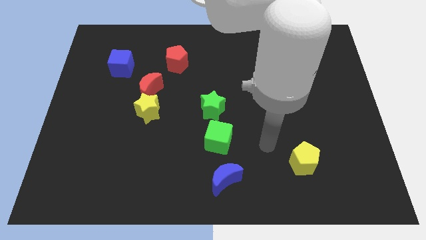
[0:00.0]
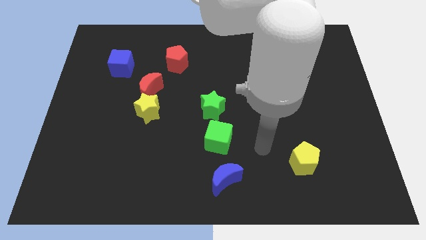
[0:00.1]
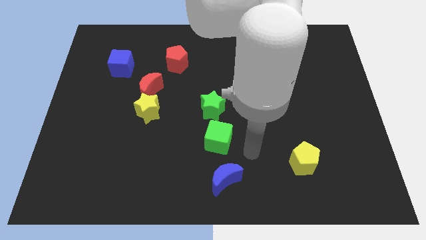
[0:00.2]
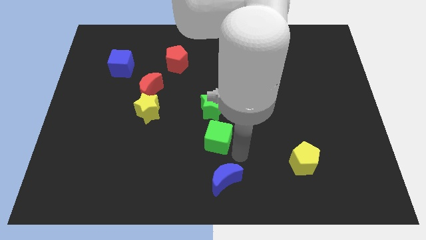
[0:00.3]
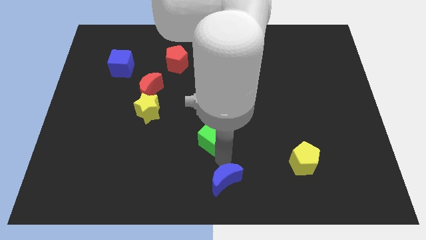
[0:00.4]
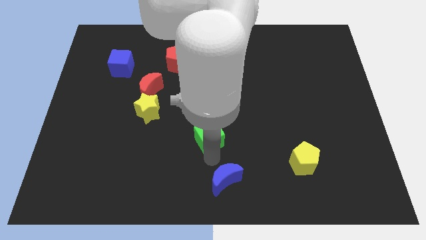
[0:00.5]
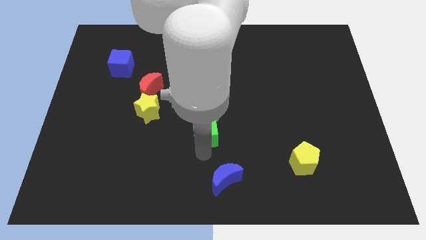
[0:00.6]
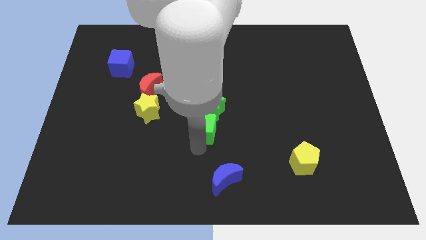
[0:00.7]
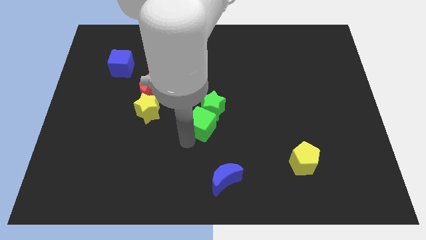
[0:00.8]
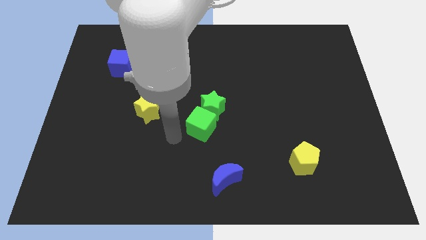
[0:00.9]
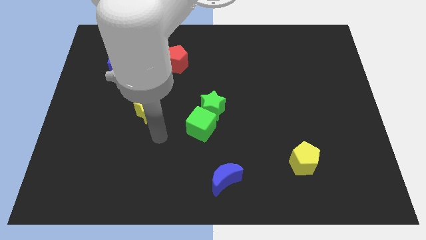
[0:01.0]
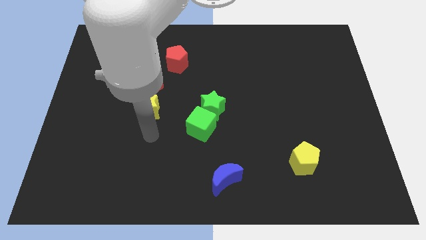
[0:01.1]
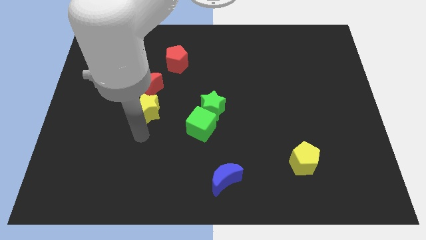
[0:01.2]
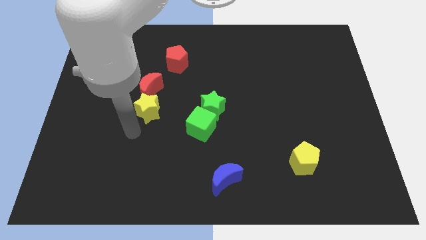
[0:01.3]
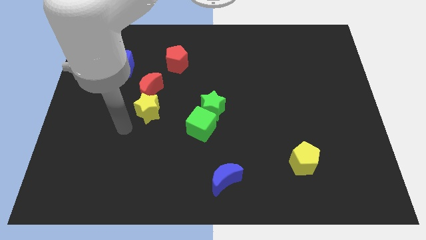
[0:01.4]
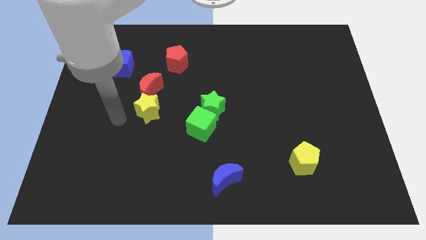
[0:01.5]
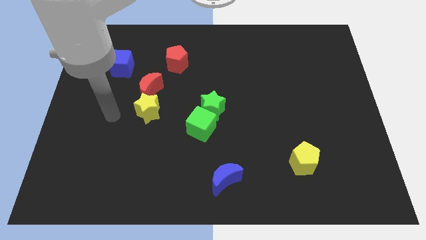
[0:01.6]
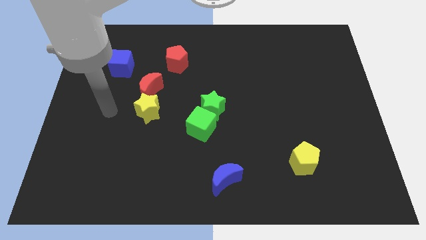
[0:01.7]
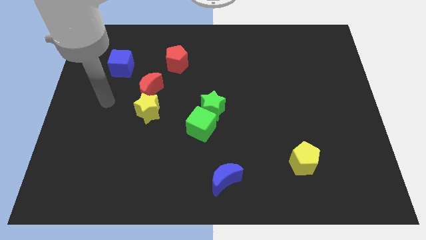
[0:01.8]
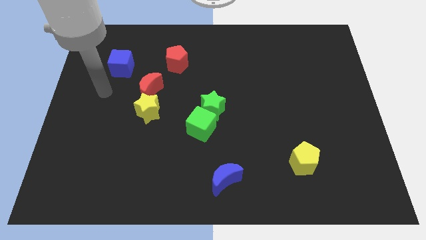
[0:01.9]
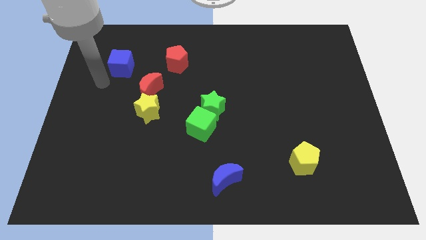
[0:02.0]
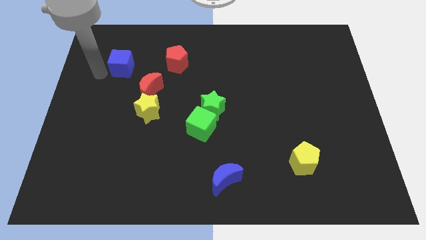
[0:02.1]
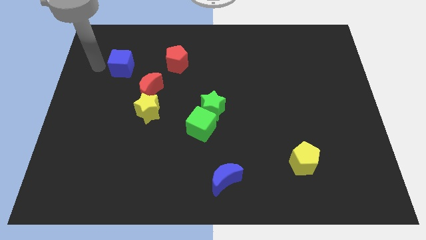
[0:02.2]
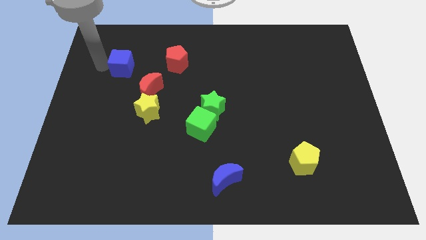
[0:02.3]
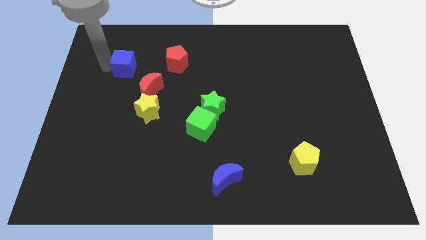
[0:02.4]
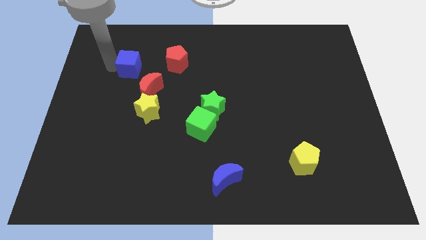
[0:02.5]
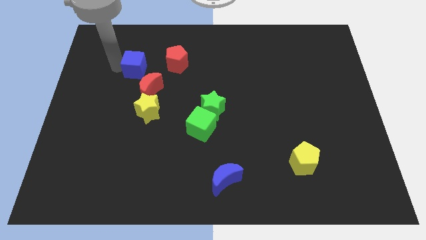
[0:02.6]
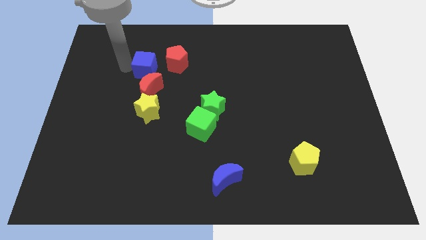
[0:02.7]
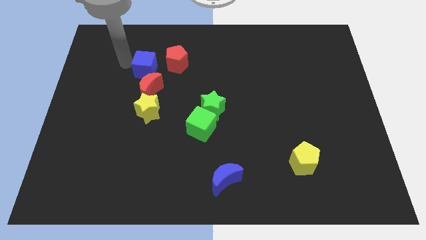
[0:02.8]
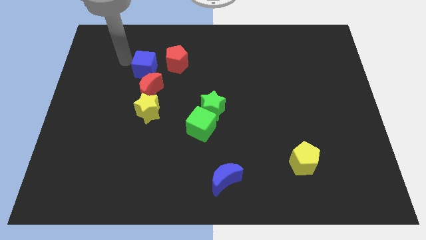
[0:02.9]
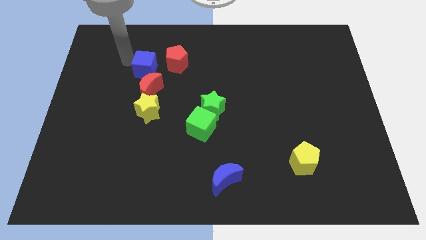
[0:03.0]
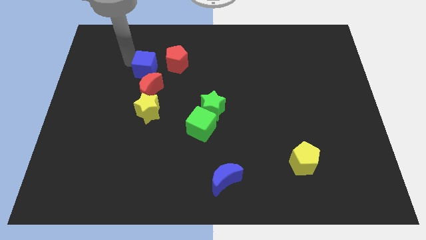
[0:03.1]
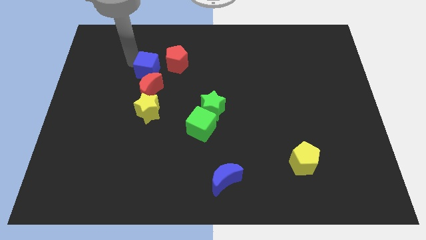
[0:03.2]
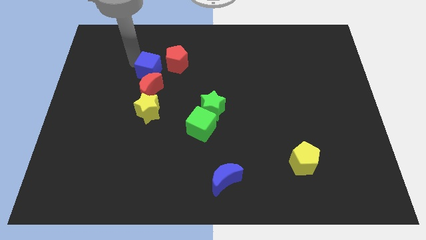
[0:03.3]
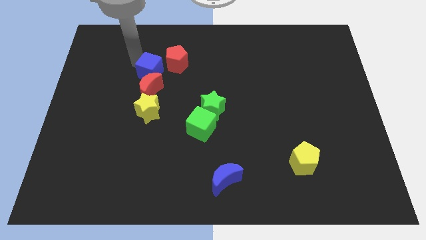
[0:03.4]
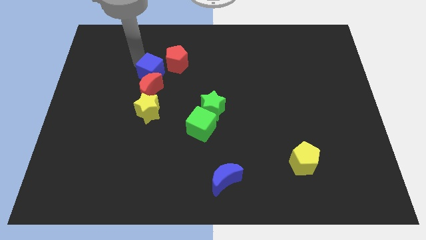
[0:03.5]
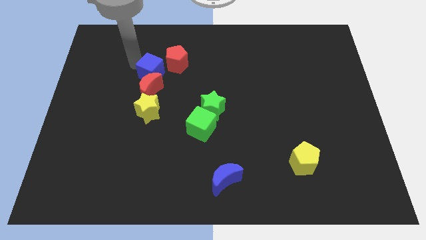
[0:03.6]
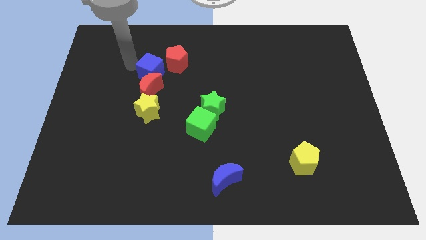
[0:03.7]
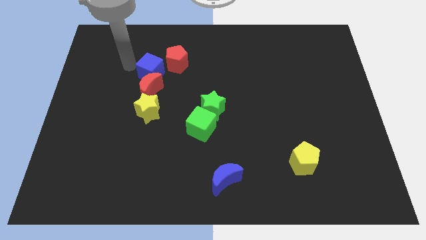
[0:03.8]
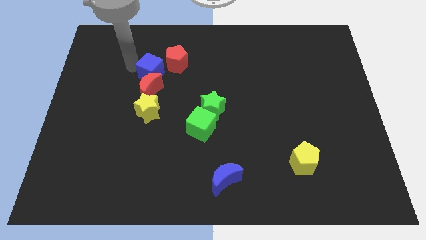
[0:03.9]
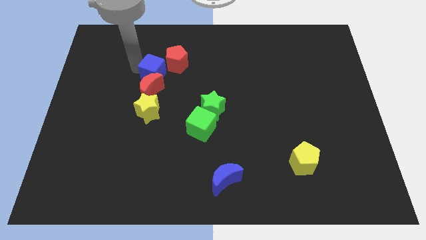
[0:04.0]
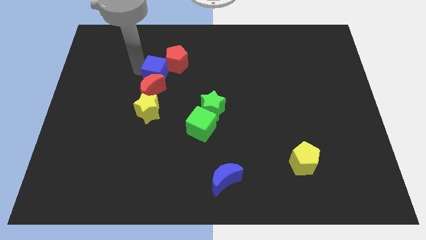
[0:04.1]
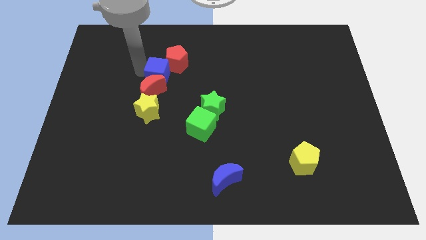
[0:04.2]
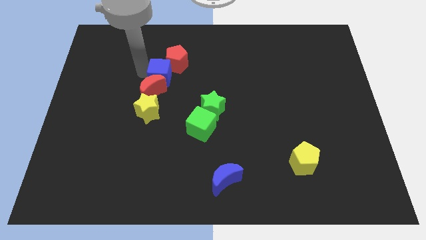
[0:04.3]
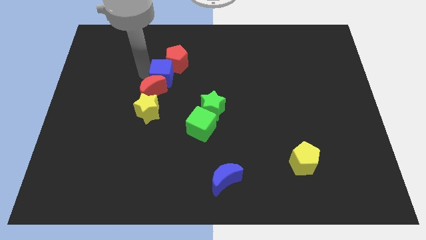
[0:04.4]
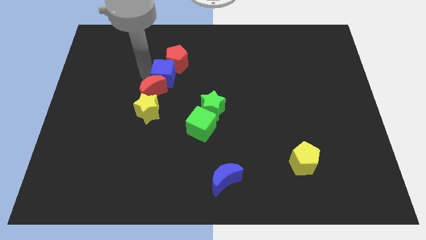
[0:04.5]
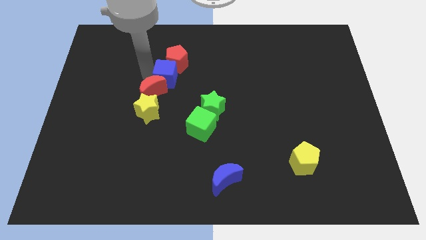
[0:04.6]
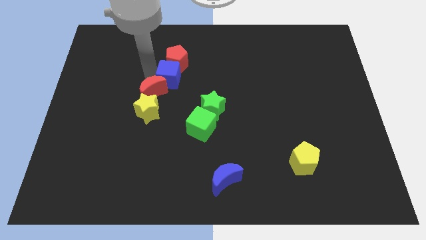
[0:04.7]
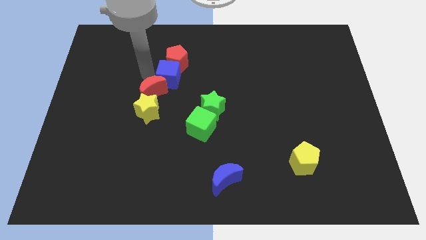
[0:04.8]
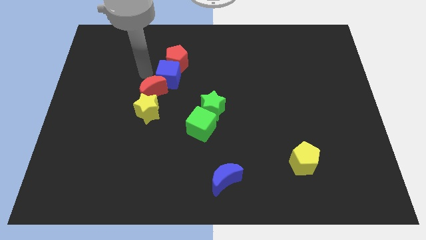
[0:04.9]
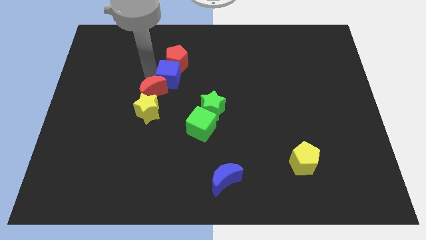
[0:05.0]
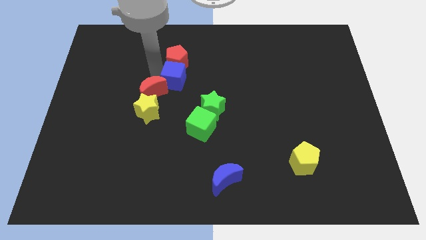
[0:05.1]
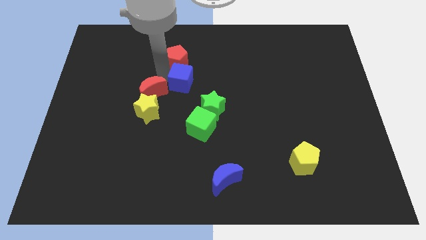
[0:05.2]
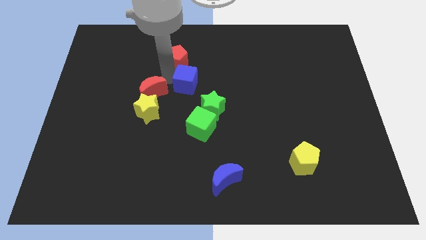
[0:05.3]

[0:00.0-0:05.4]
push the blue cube to the top of the green cube
